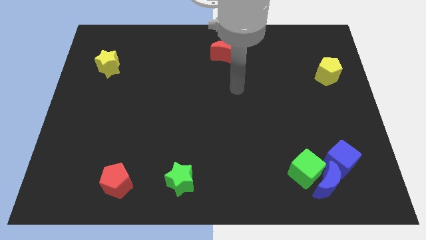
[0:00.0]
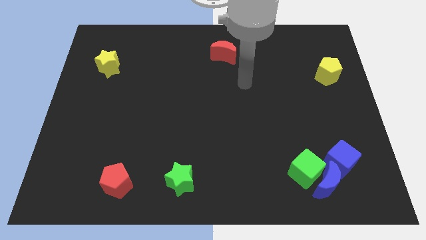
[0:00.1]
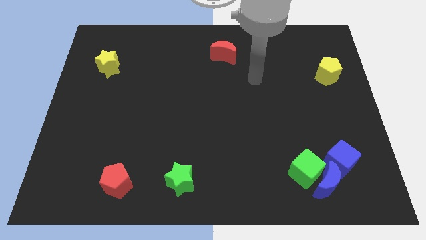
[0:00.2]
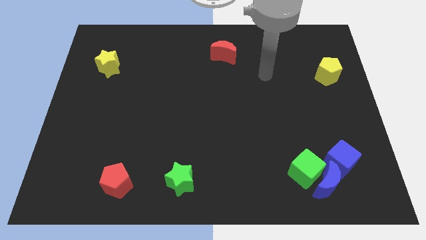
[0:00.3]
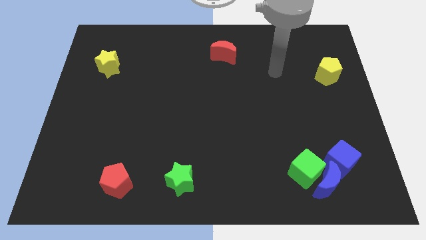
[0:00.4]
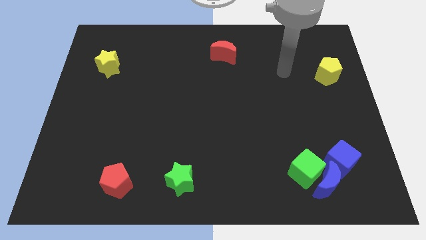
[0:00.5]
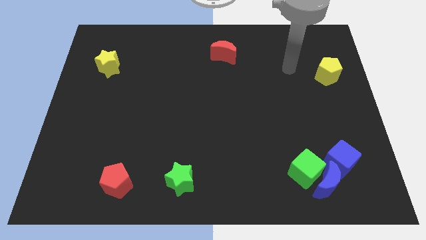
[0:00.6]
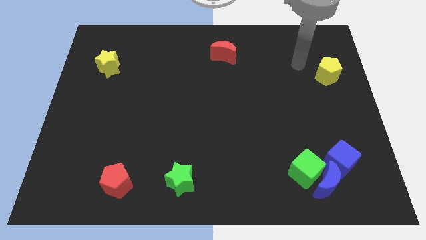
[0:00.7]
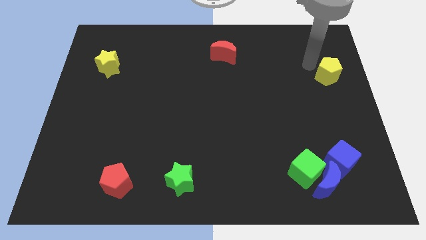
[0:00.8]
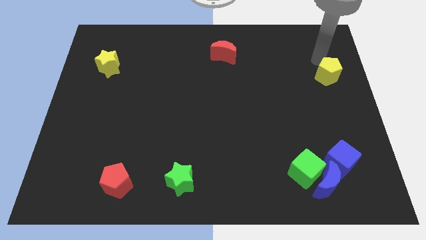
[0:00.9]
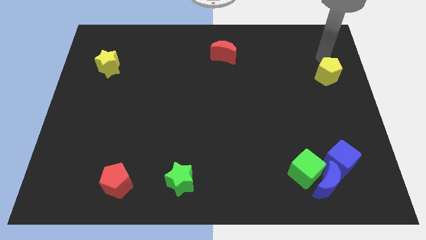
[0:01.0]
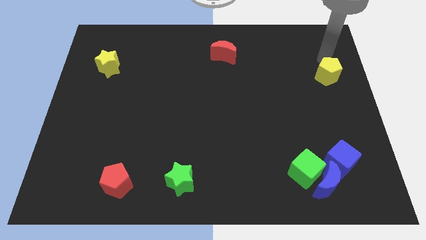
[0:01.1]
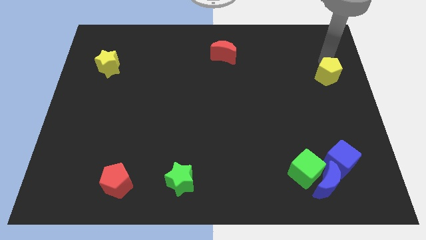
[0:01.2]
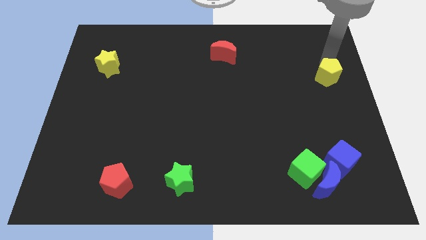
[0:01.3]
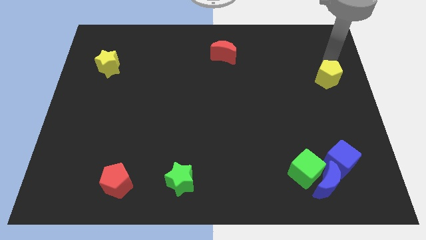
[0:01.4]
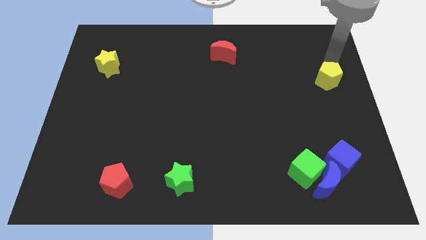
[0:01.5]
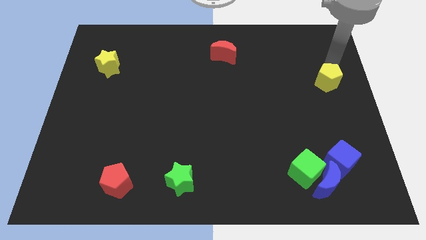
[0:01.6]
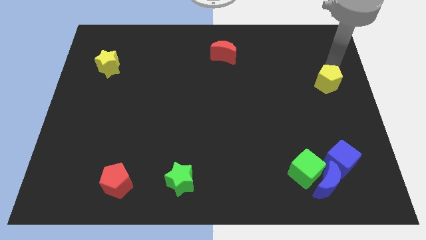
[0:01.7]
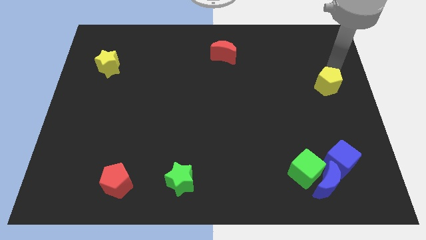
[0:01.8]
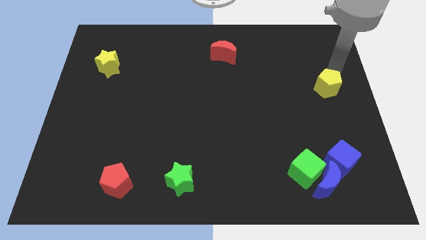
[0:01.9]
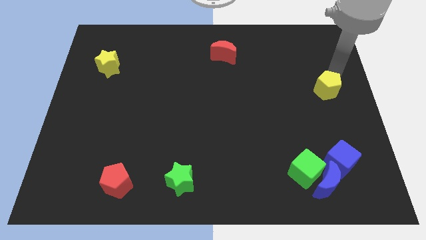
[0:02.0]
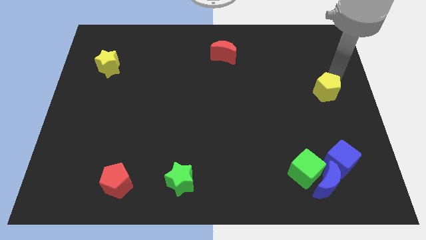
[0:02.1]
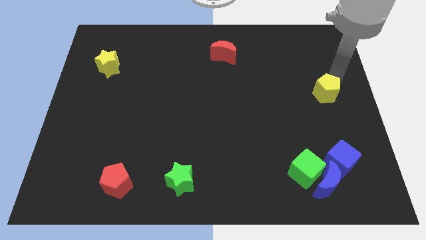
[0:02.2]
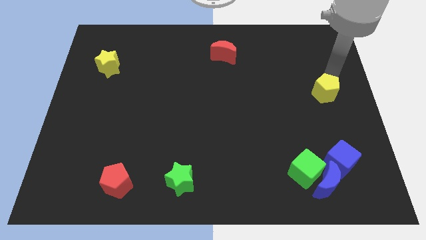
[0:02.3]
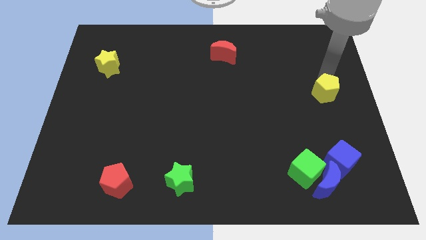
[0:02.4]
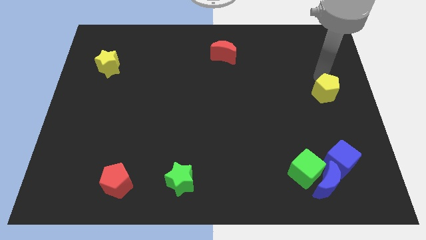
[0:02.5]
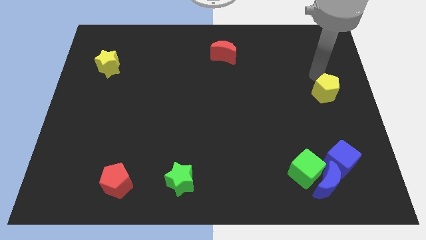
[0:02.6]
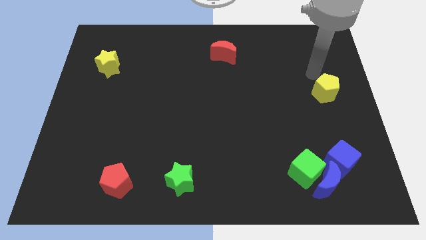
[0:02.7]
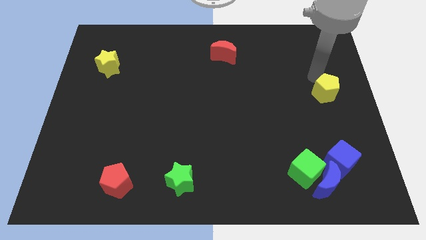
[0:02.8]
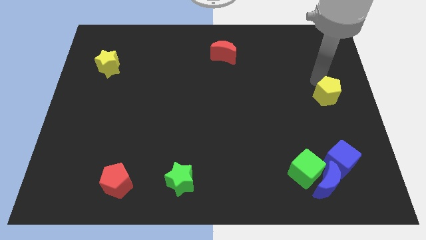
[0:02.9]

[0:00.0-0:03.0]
slightly slide the yellow pentagon down

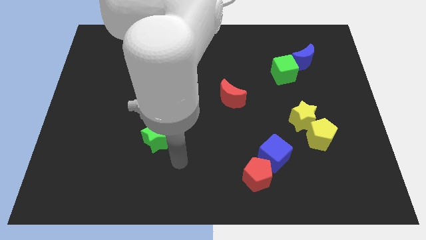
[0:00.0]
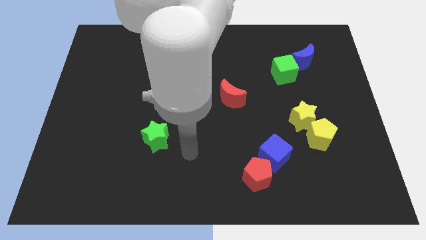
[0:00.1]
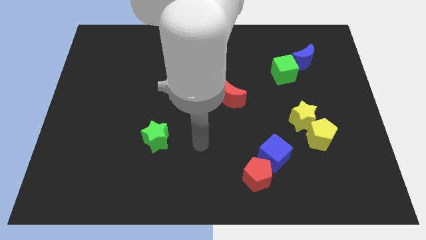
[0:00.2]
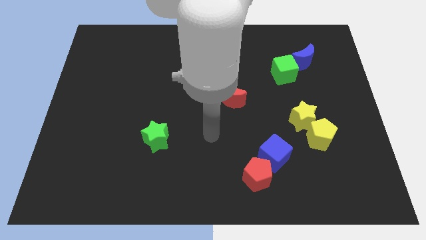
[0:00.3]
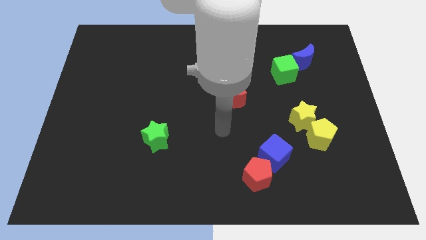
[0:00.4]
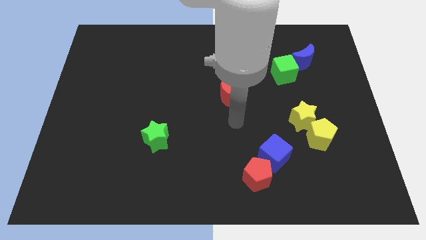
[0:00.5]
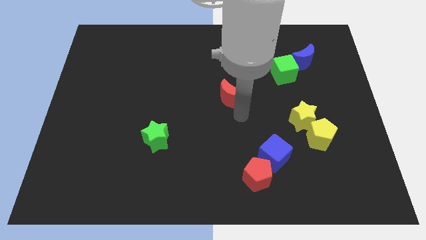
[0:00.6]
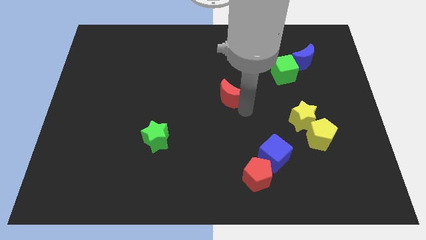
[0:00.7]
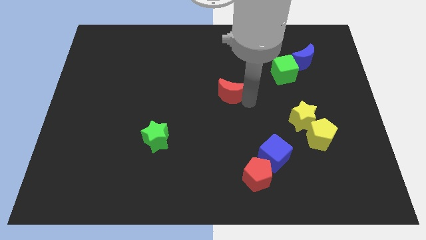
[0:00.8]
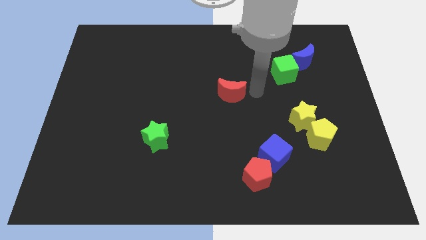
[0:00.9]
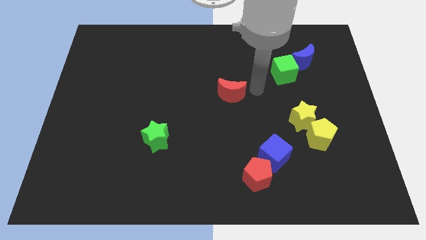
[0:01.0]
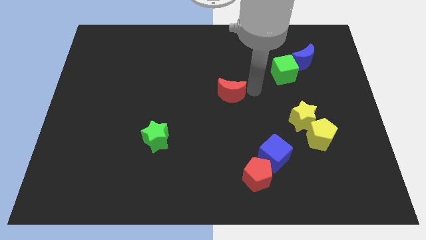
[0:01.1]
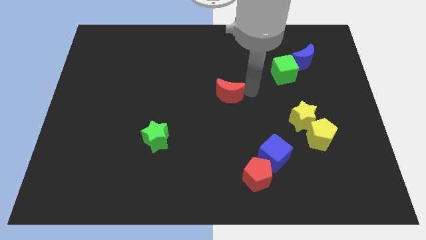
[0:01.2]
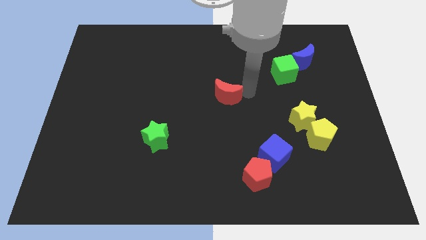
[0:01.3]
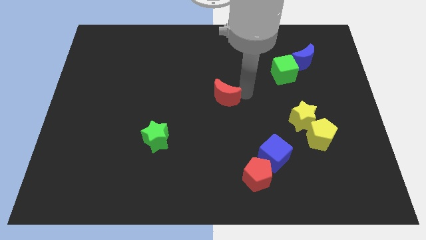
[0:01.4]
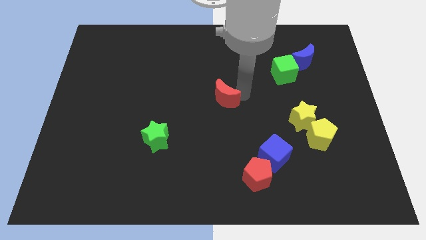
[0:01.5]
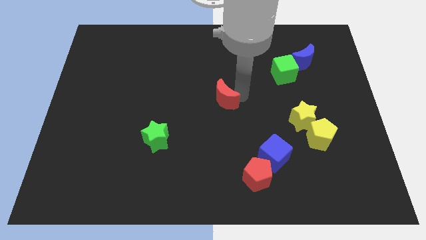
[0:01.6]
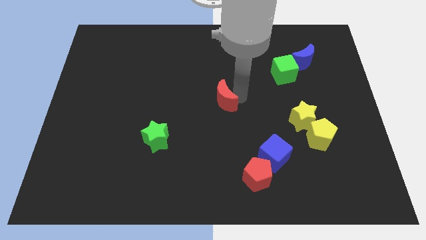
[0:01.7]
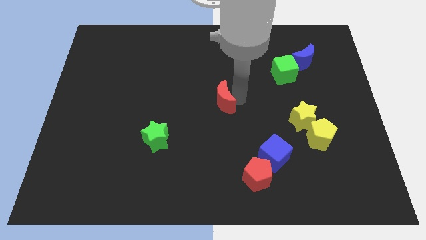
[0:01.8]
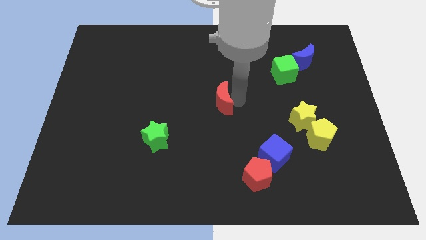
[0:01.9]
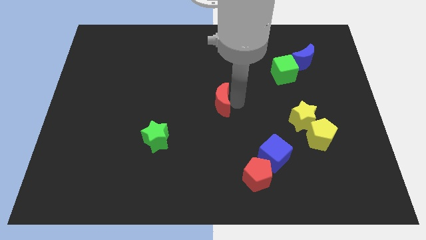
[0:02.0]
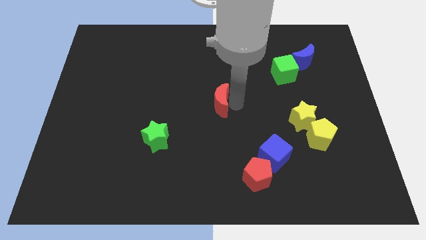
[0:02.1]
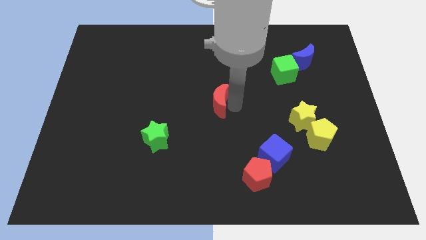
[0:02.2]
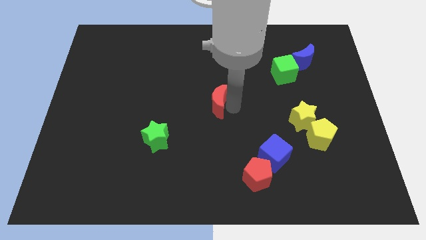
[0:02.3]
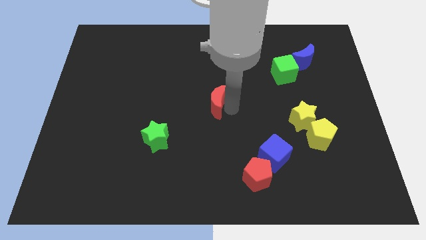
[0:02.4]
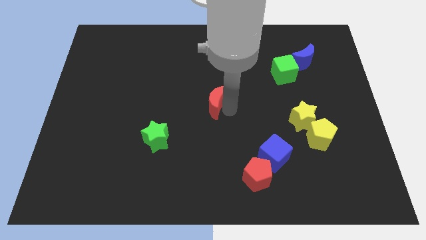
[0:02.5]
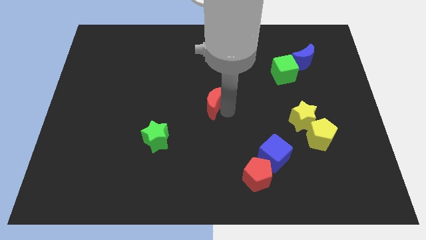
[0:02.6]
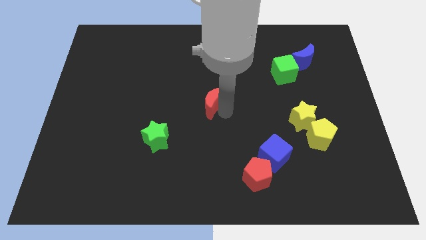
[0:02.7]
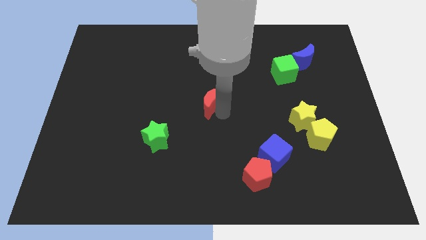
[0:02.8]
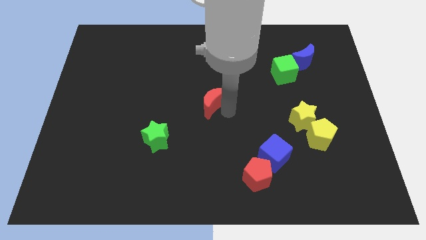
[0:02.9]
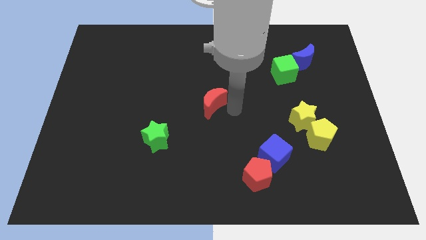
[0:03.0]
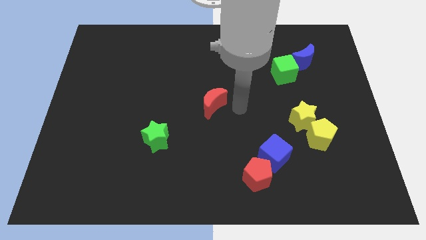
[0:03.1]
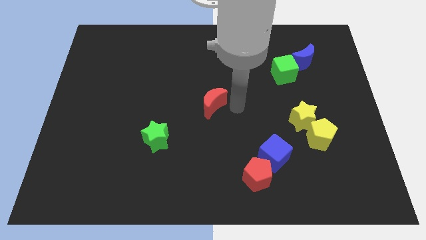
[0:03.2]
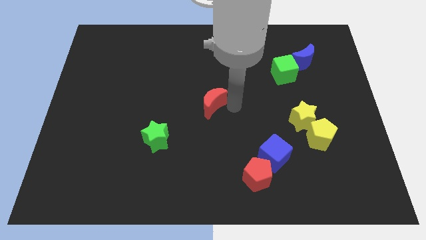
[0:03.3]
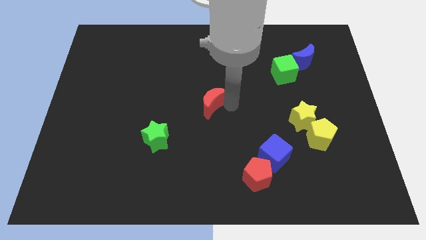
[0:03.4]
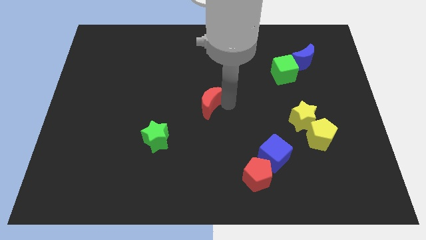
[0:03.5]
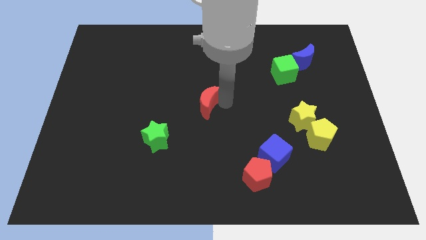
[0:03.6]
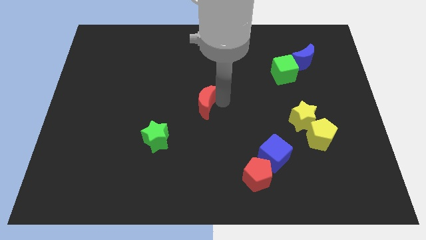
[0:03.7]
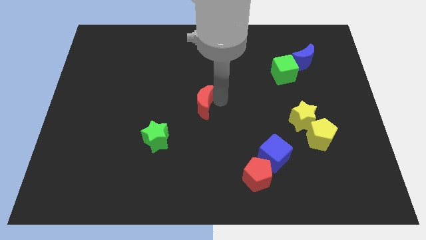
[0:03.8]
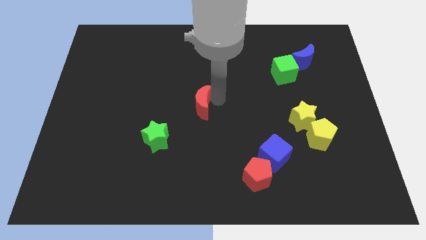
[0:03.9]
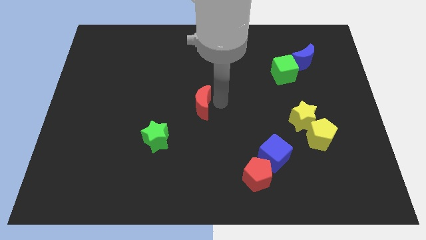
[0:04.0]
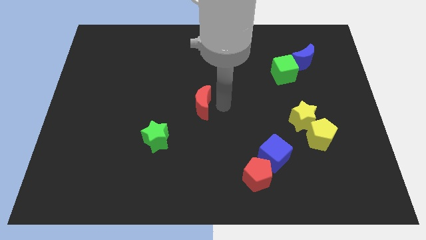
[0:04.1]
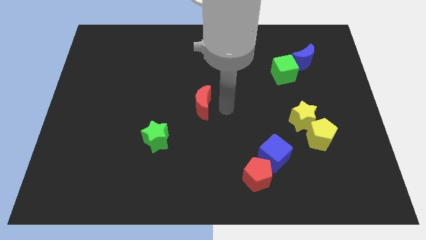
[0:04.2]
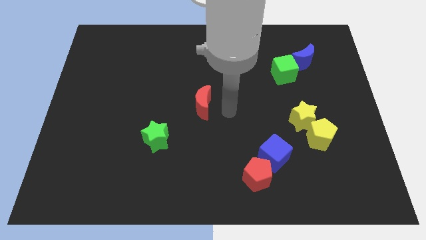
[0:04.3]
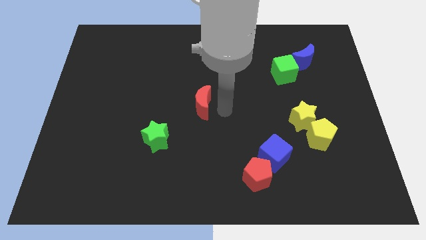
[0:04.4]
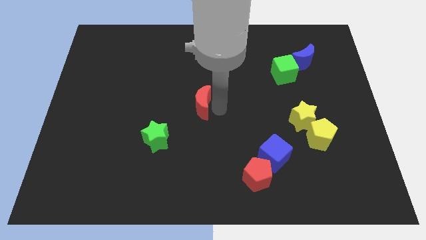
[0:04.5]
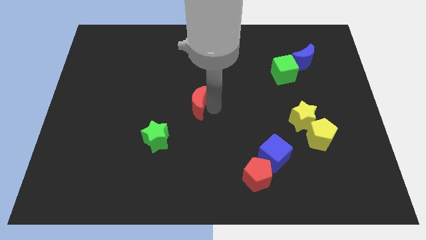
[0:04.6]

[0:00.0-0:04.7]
push the red moon somewhat left
